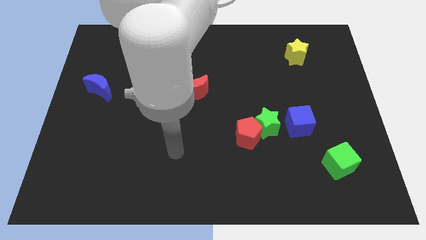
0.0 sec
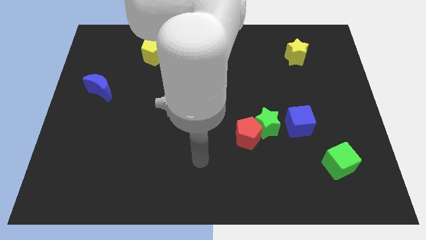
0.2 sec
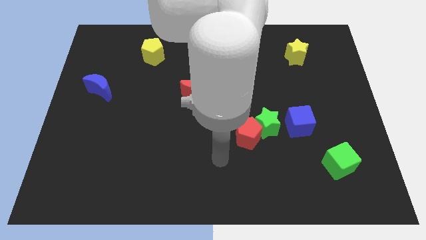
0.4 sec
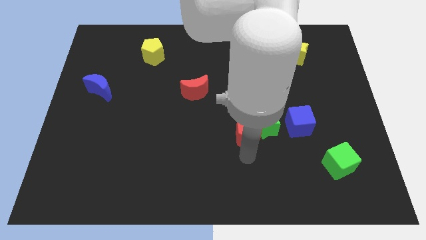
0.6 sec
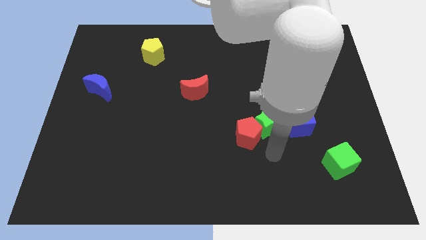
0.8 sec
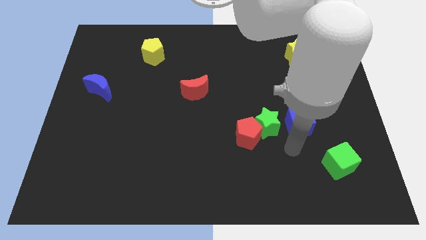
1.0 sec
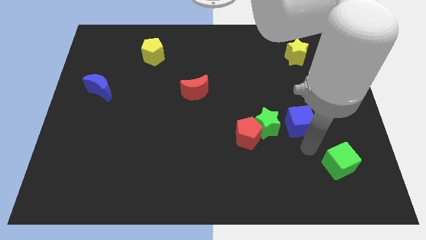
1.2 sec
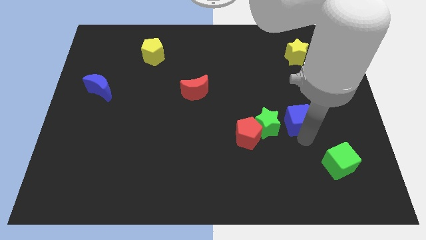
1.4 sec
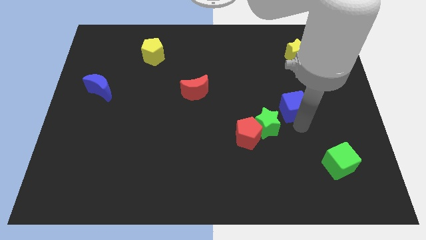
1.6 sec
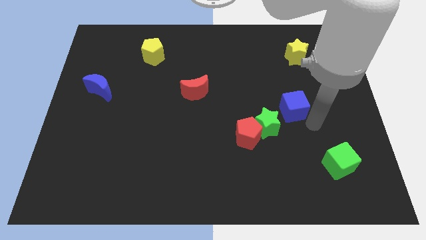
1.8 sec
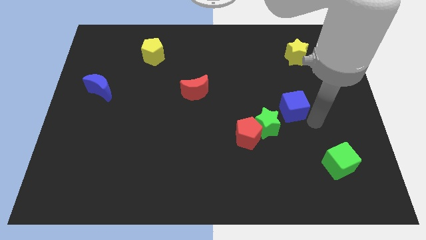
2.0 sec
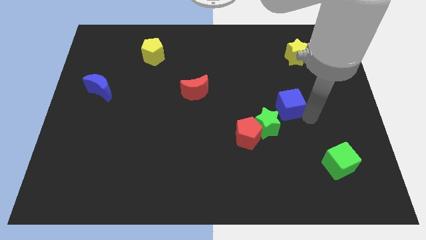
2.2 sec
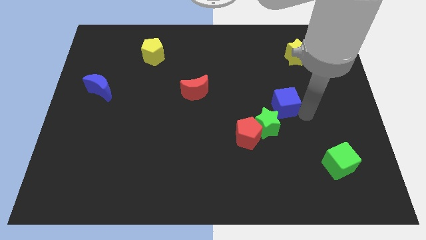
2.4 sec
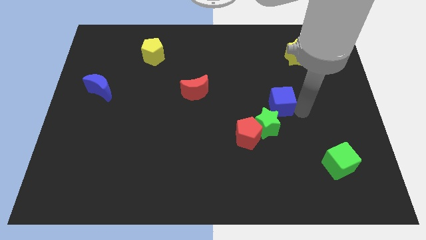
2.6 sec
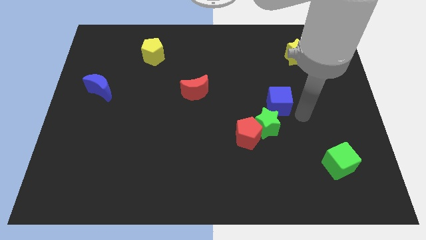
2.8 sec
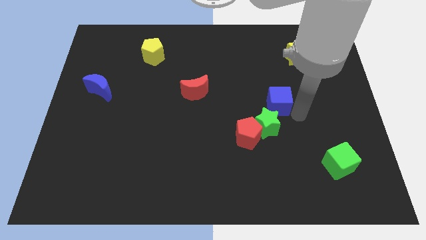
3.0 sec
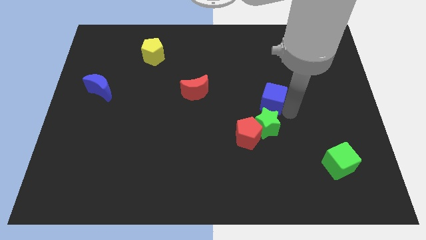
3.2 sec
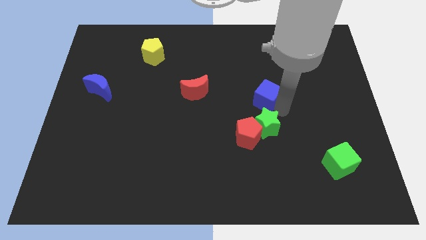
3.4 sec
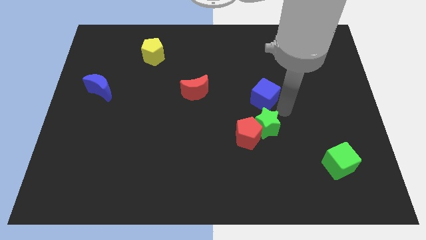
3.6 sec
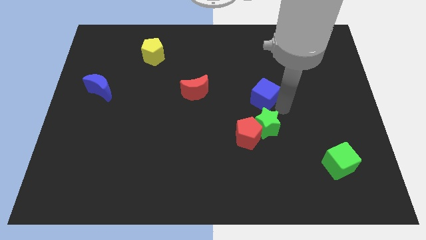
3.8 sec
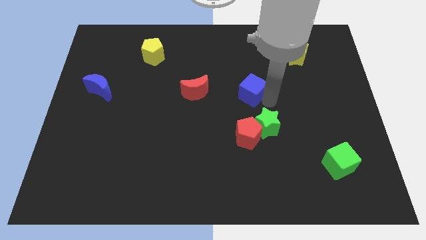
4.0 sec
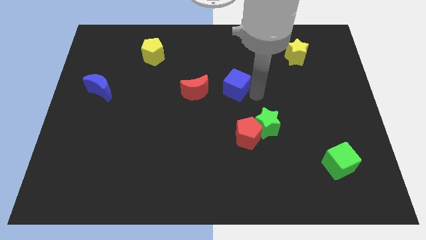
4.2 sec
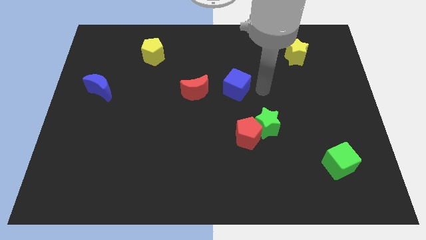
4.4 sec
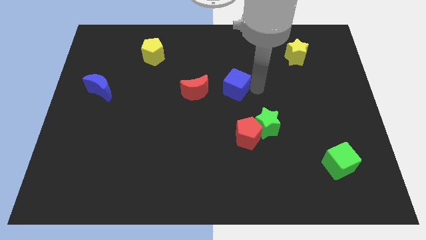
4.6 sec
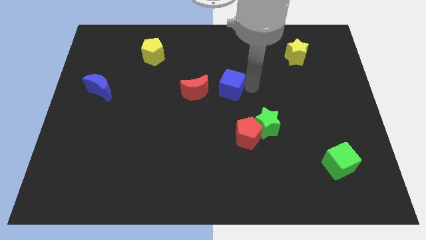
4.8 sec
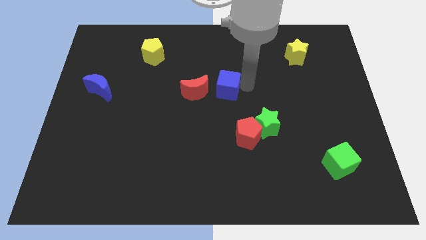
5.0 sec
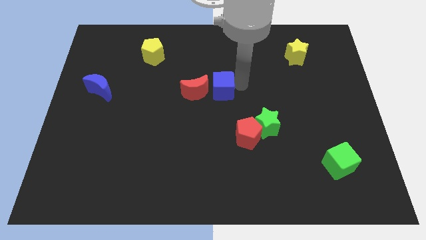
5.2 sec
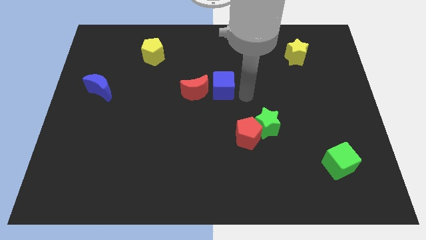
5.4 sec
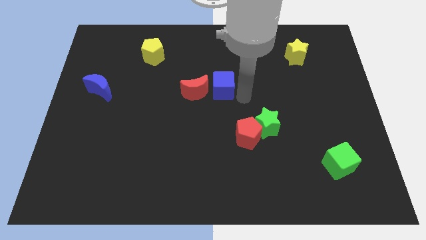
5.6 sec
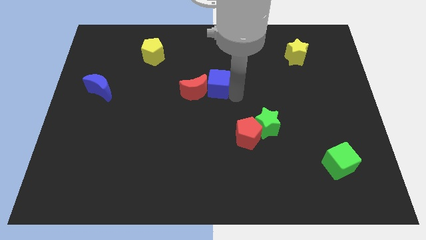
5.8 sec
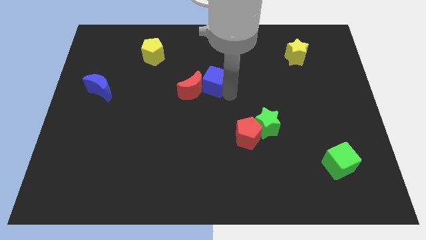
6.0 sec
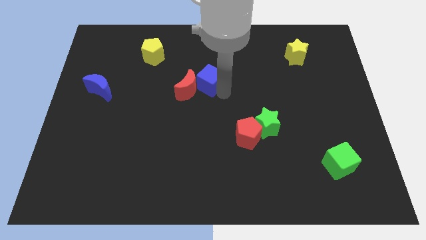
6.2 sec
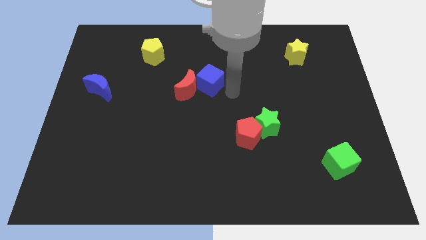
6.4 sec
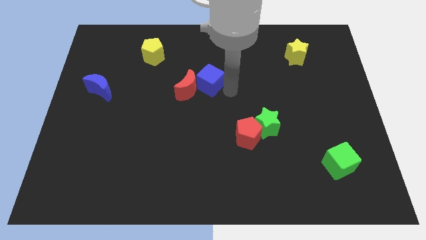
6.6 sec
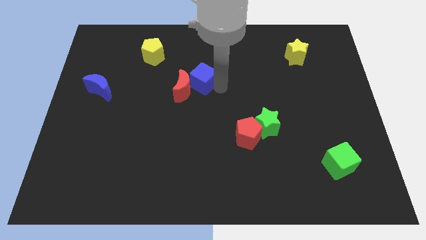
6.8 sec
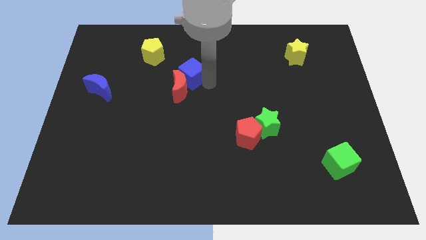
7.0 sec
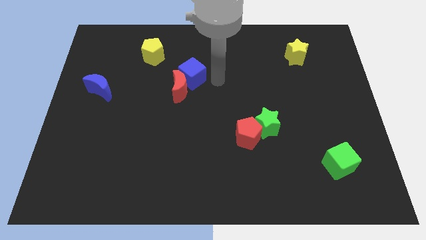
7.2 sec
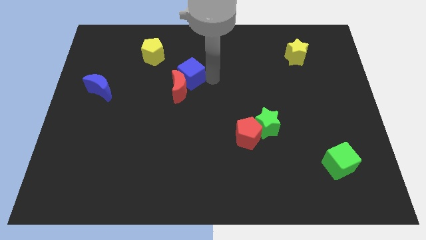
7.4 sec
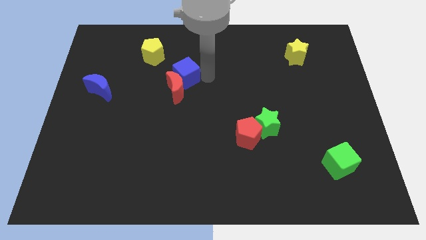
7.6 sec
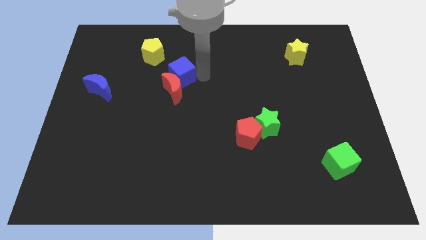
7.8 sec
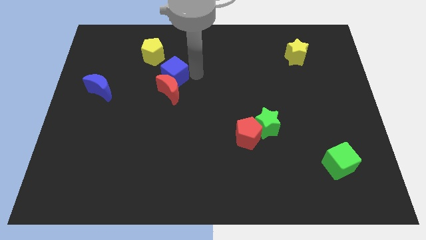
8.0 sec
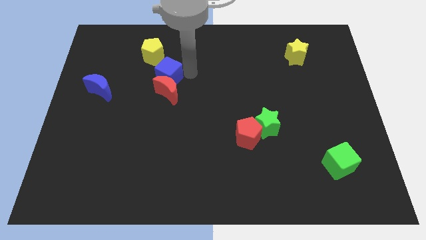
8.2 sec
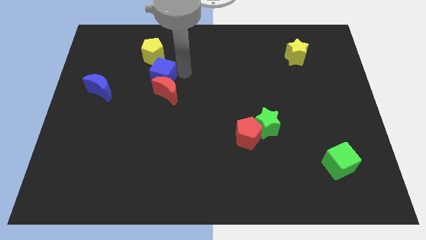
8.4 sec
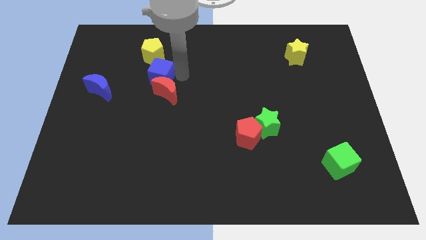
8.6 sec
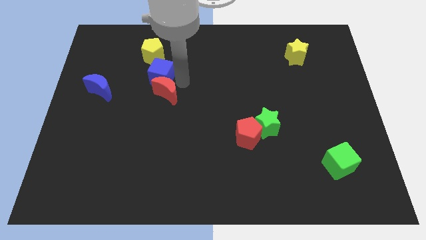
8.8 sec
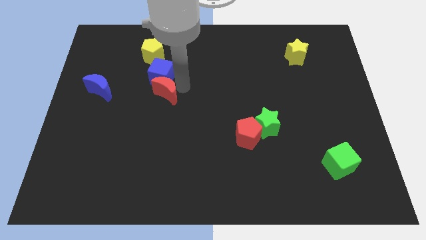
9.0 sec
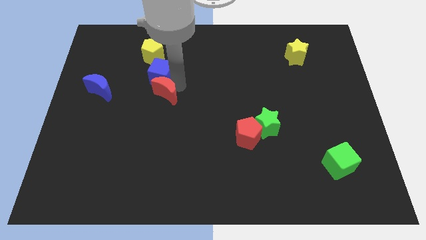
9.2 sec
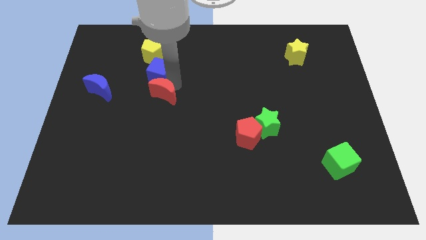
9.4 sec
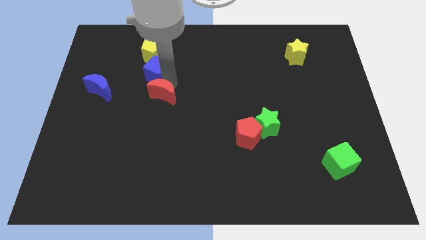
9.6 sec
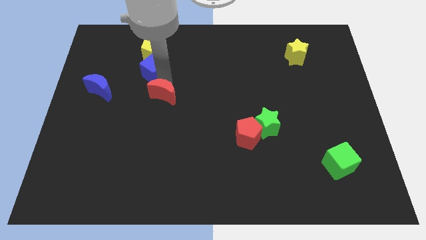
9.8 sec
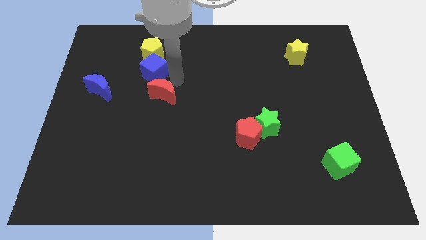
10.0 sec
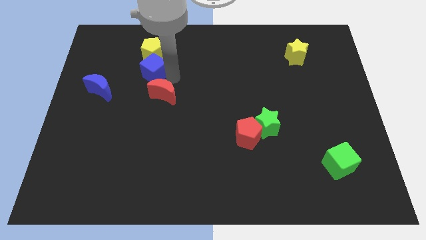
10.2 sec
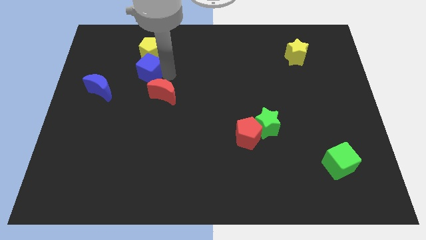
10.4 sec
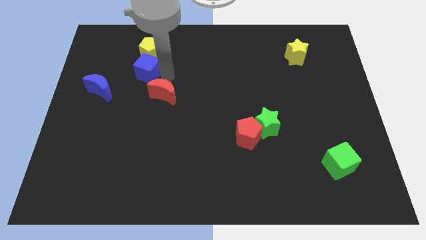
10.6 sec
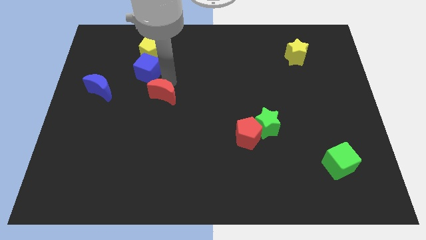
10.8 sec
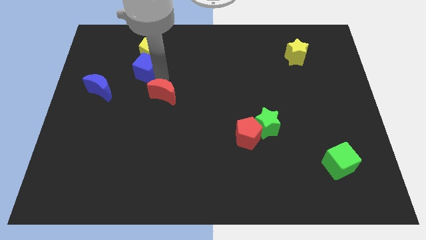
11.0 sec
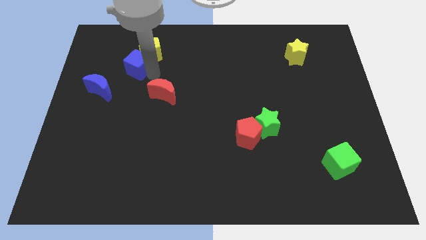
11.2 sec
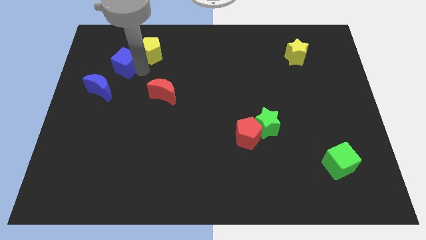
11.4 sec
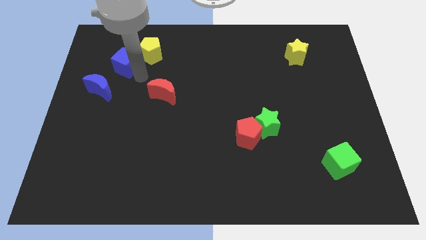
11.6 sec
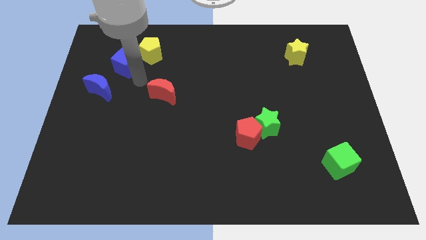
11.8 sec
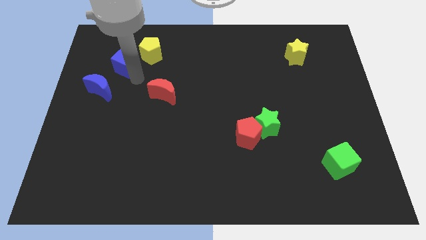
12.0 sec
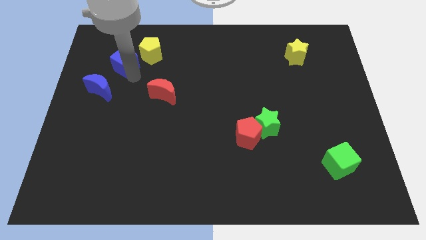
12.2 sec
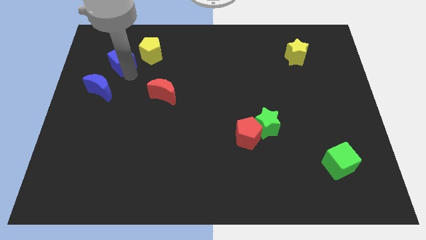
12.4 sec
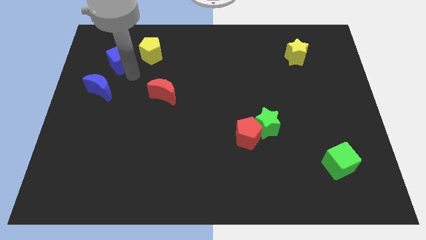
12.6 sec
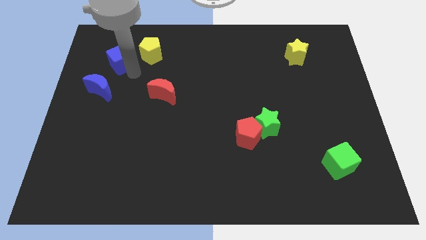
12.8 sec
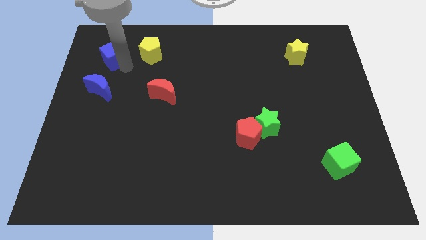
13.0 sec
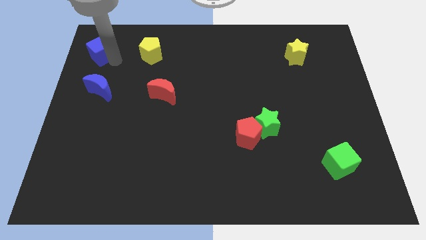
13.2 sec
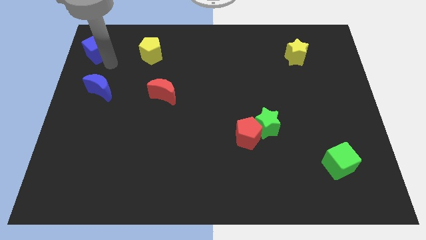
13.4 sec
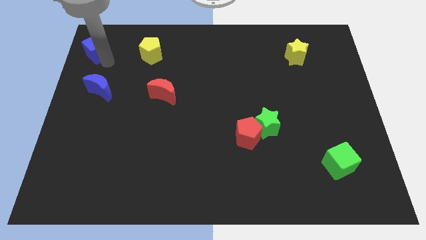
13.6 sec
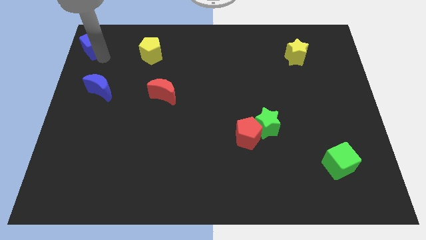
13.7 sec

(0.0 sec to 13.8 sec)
move the blue cube to the top left corner

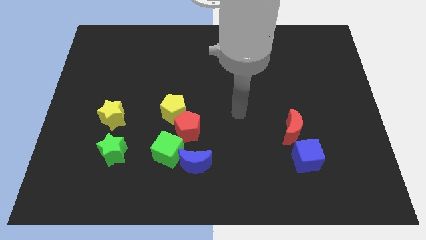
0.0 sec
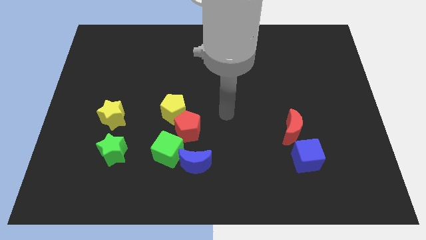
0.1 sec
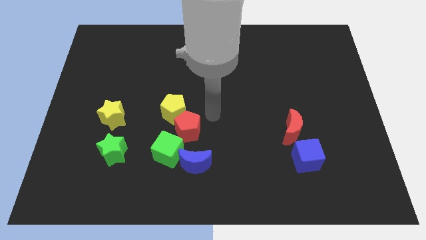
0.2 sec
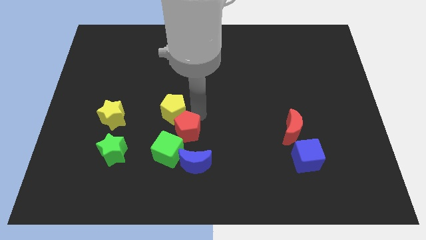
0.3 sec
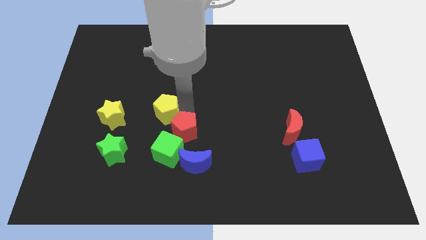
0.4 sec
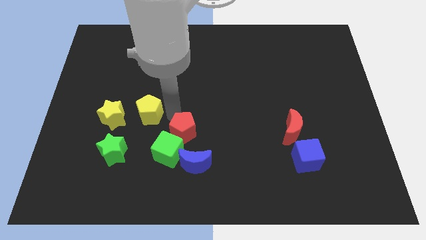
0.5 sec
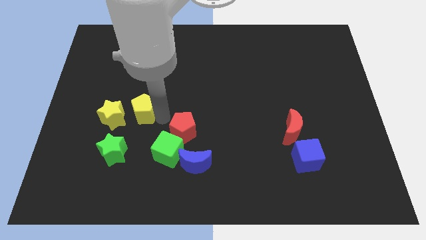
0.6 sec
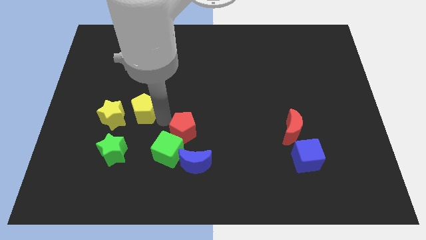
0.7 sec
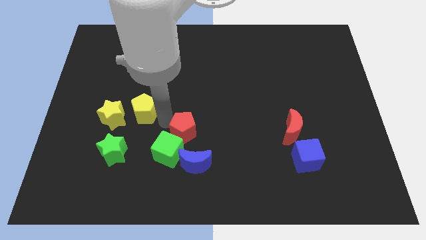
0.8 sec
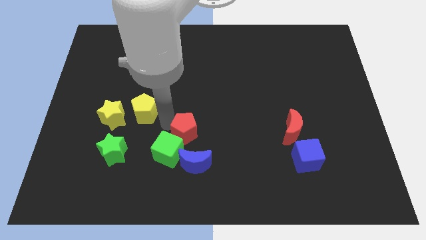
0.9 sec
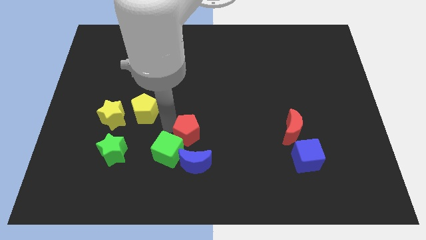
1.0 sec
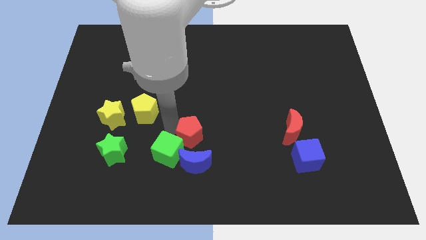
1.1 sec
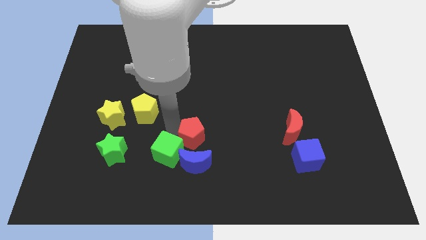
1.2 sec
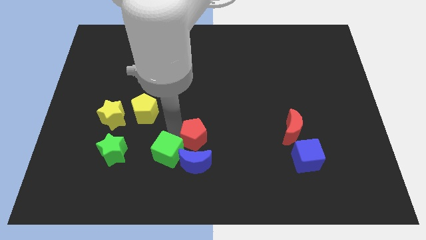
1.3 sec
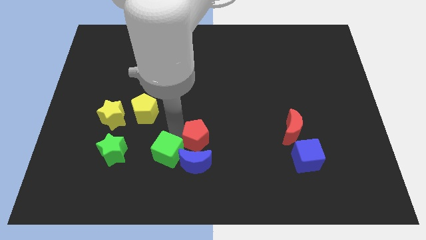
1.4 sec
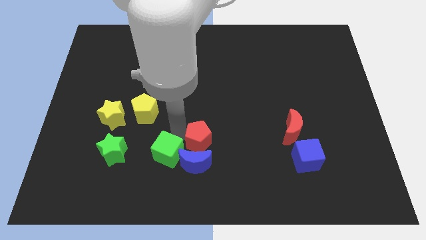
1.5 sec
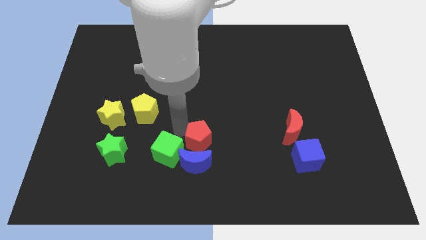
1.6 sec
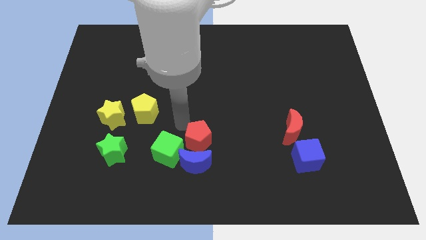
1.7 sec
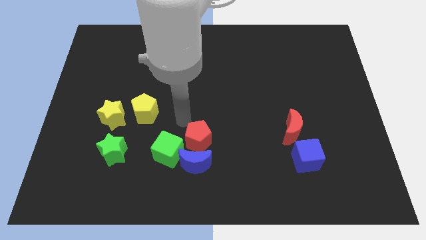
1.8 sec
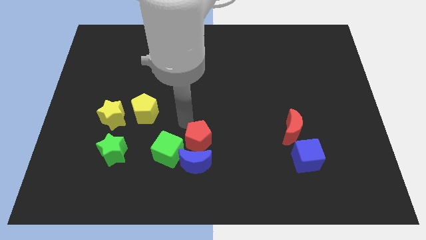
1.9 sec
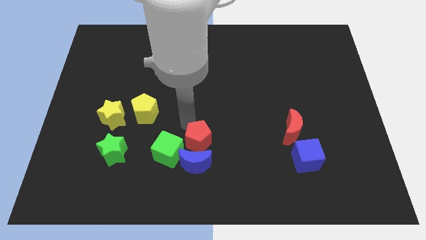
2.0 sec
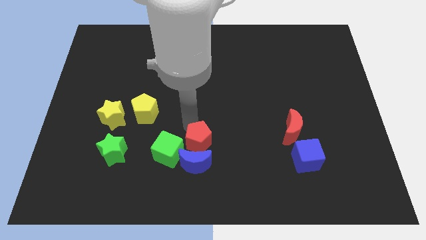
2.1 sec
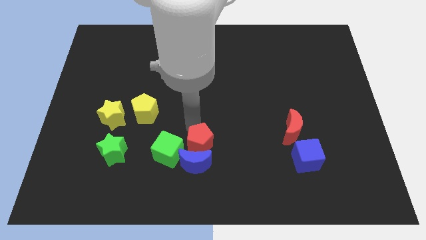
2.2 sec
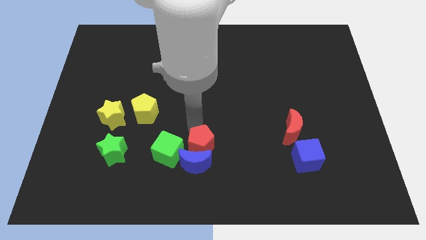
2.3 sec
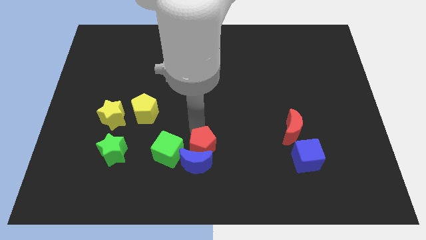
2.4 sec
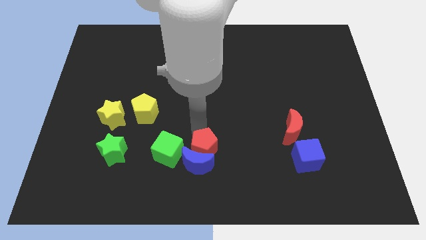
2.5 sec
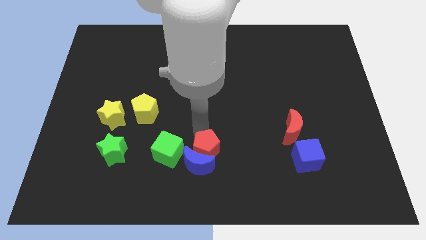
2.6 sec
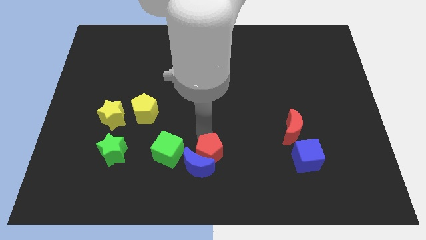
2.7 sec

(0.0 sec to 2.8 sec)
slide the red pentagon to the bottom
